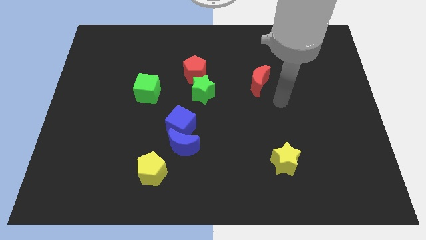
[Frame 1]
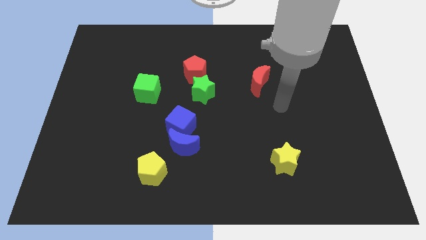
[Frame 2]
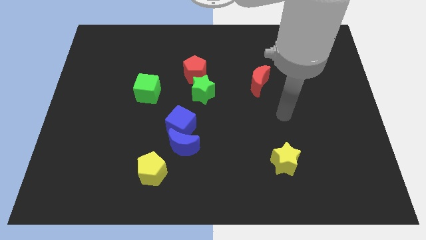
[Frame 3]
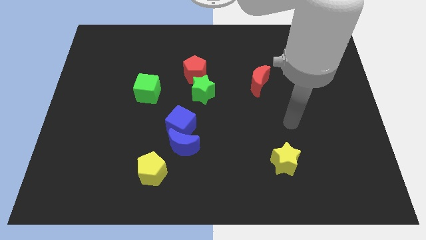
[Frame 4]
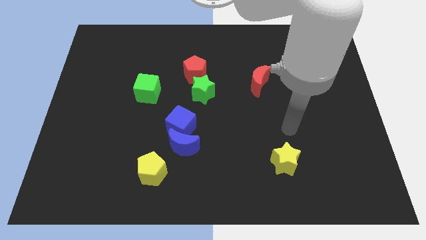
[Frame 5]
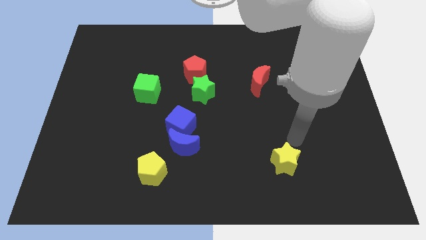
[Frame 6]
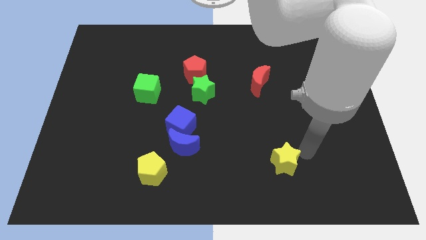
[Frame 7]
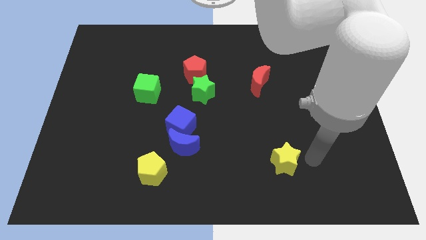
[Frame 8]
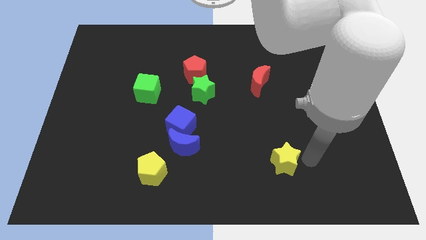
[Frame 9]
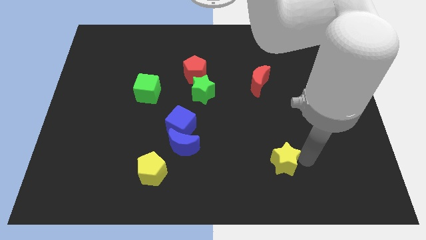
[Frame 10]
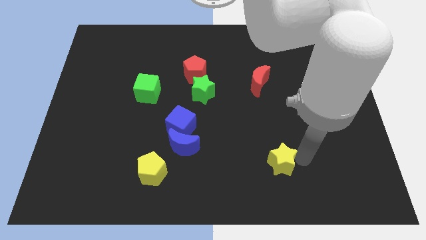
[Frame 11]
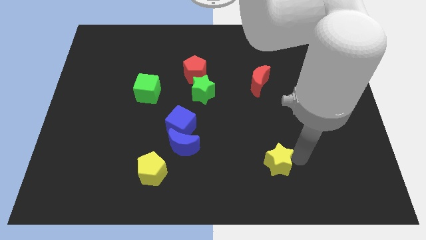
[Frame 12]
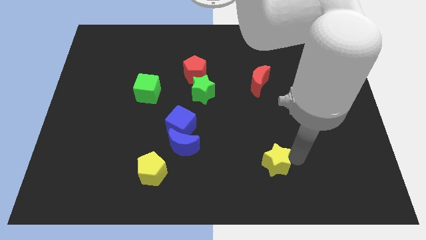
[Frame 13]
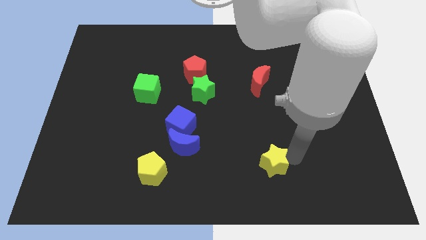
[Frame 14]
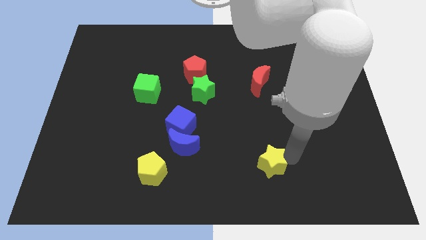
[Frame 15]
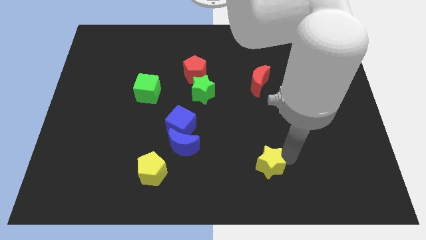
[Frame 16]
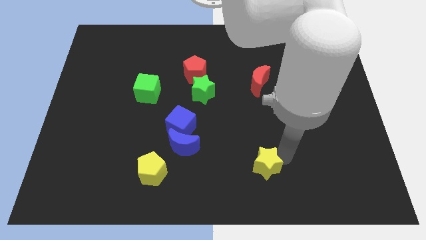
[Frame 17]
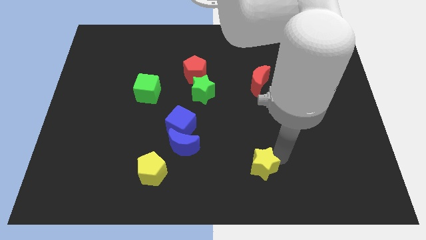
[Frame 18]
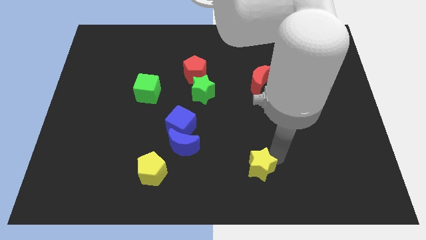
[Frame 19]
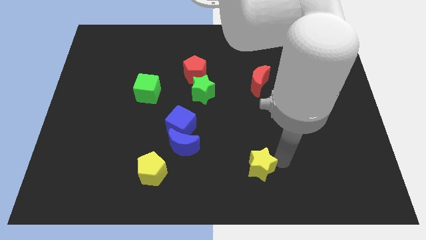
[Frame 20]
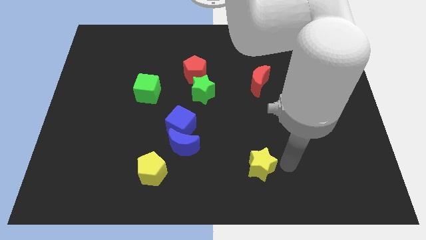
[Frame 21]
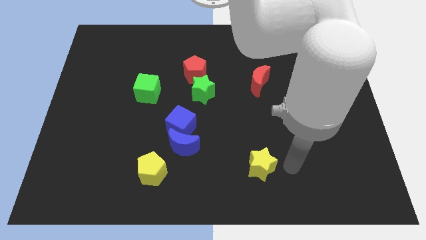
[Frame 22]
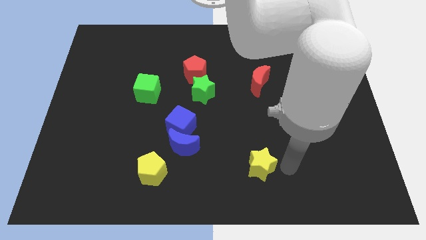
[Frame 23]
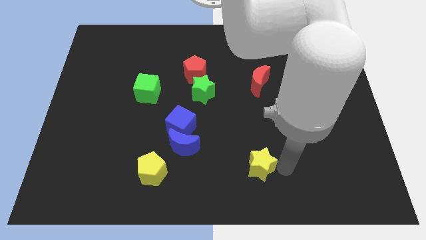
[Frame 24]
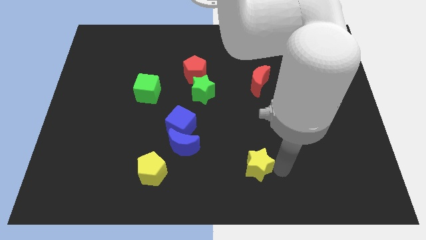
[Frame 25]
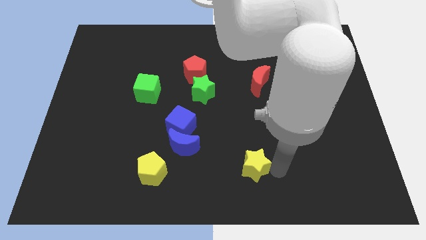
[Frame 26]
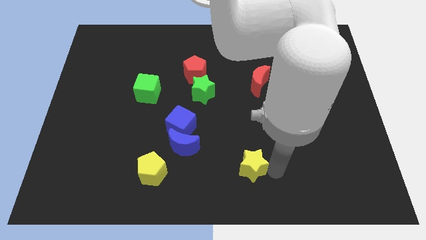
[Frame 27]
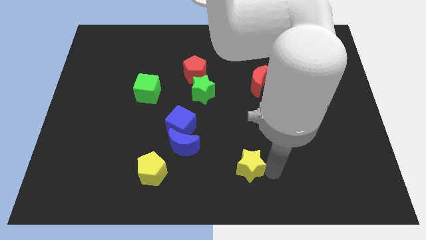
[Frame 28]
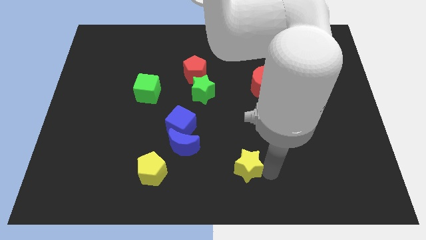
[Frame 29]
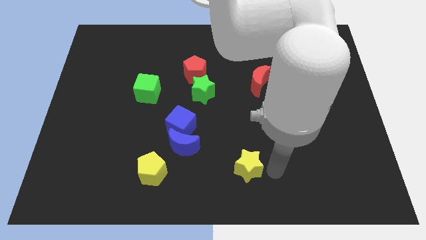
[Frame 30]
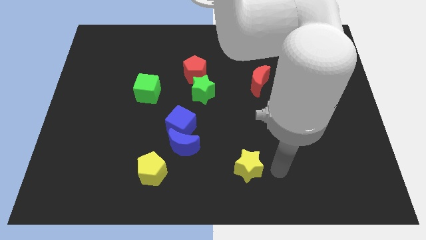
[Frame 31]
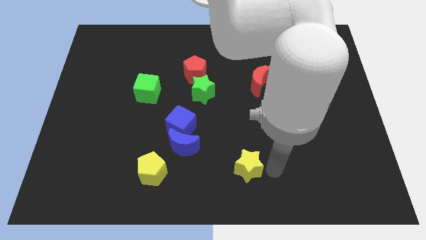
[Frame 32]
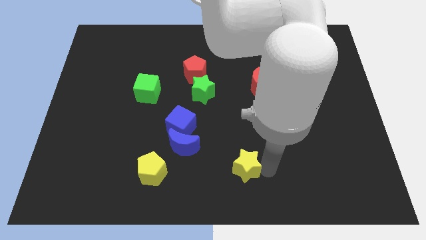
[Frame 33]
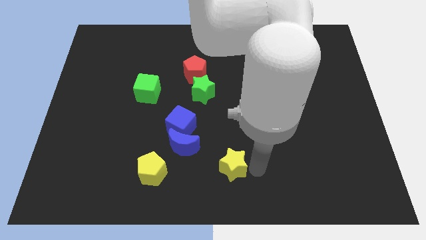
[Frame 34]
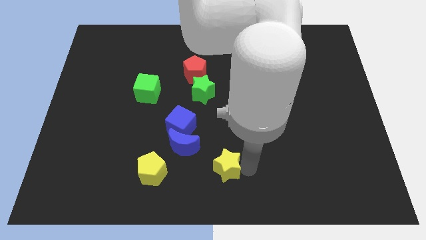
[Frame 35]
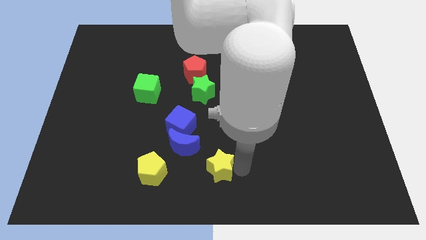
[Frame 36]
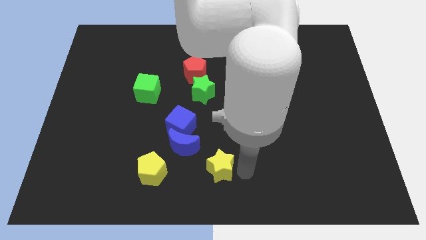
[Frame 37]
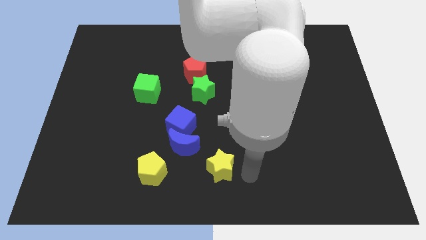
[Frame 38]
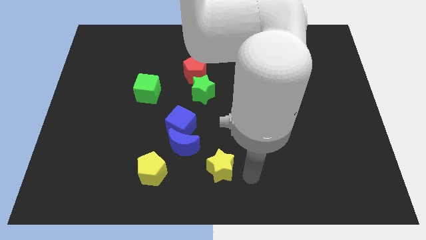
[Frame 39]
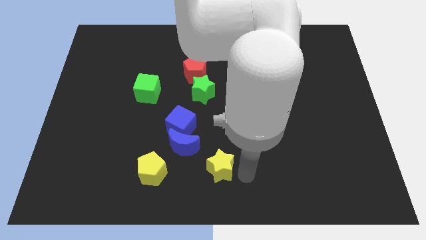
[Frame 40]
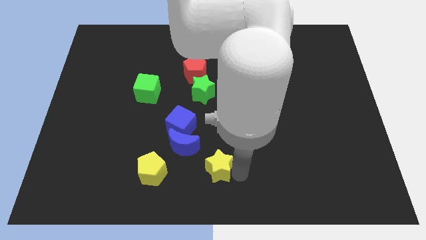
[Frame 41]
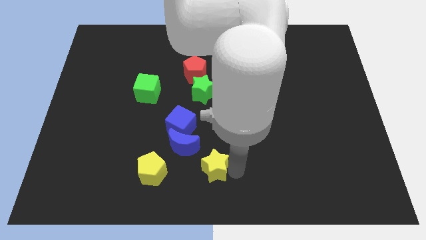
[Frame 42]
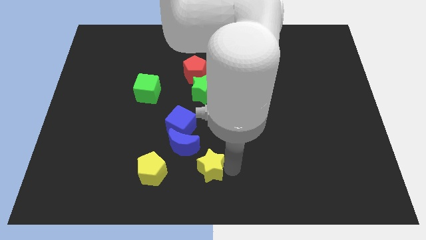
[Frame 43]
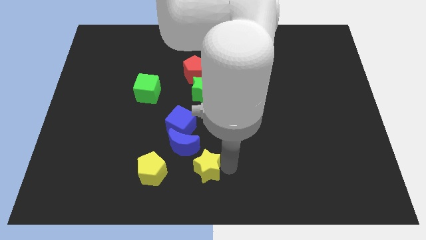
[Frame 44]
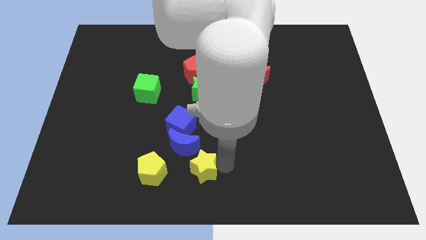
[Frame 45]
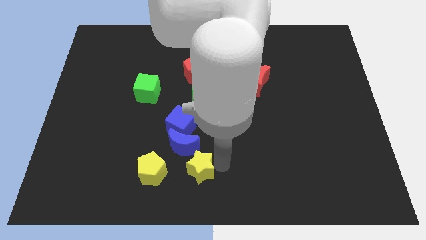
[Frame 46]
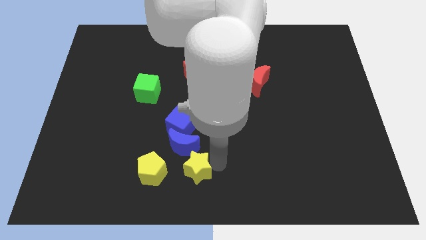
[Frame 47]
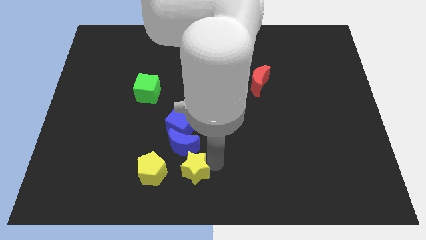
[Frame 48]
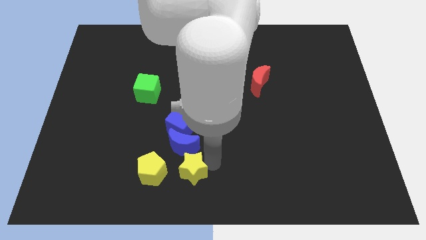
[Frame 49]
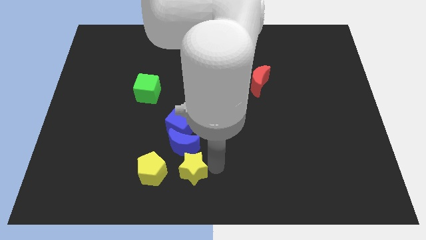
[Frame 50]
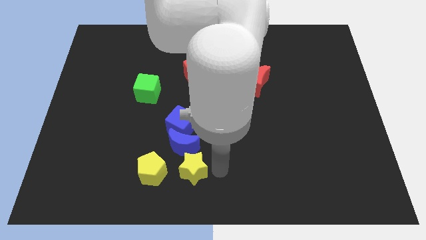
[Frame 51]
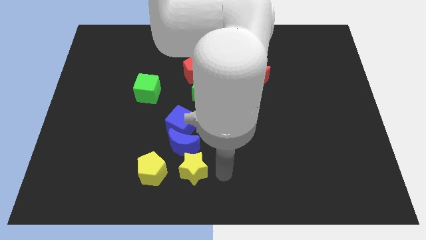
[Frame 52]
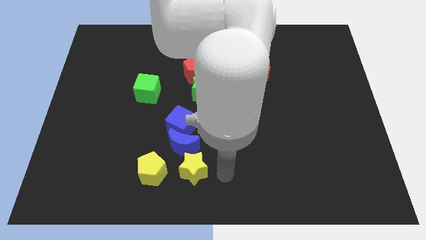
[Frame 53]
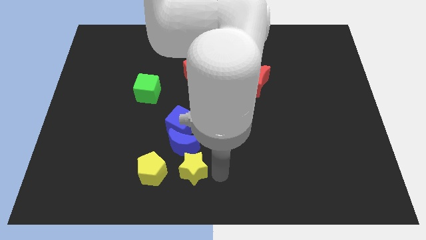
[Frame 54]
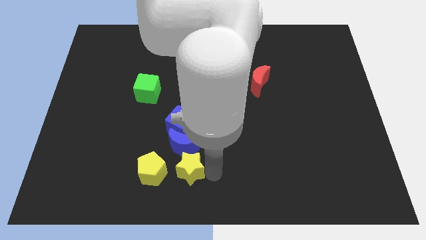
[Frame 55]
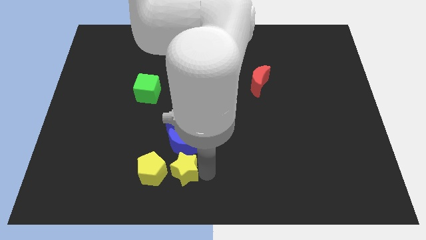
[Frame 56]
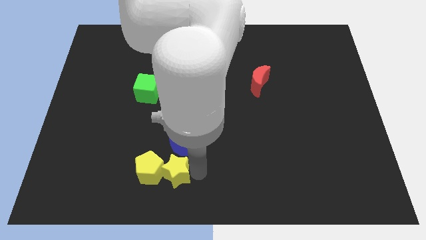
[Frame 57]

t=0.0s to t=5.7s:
put the yellow star next to the yellow pentagon

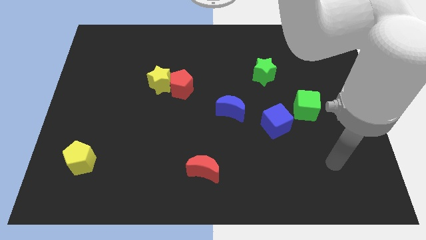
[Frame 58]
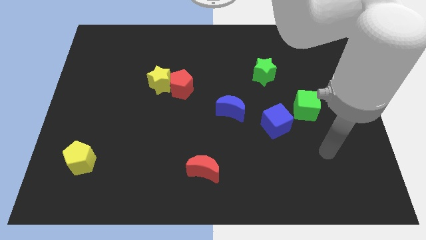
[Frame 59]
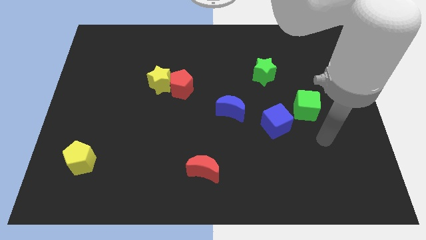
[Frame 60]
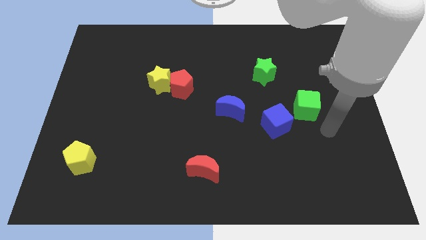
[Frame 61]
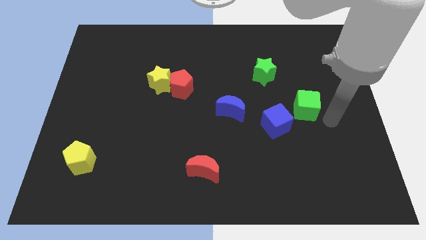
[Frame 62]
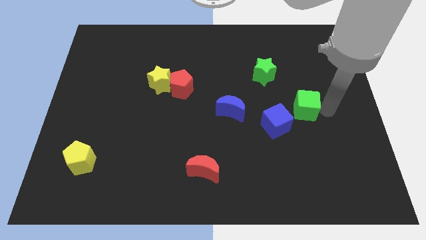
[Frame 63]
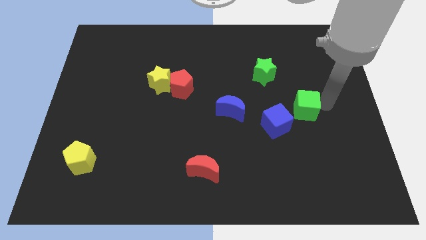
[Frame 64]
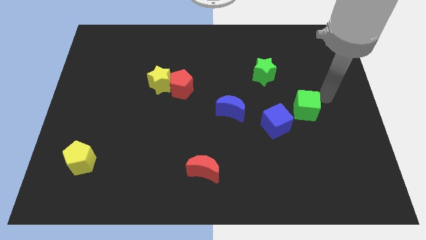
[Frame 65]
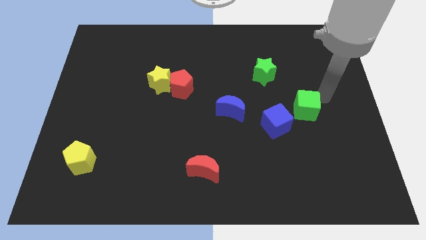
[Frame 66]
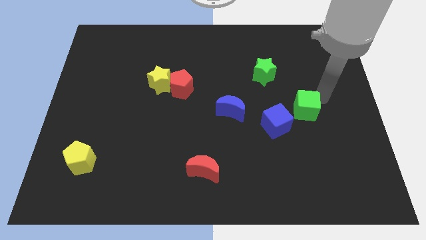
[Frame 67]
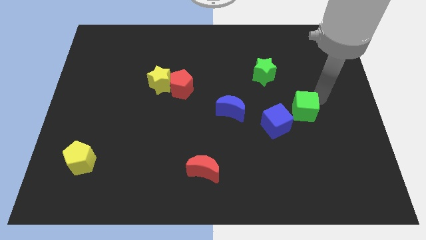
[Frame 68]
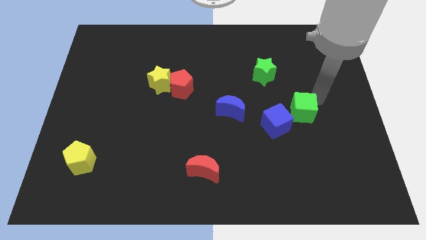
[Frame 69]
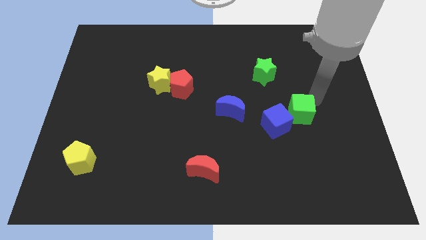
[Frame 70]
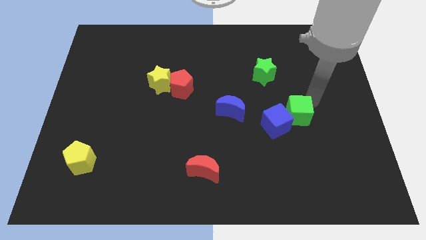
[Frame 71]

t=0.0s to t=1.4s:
put the green cube to the blue cube

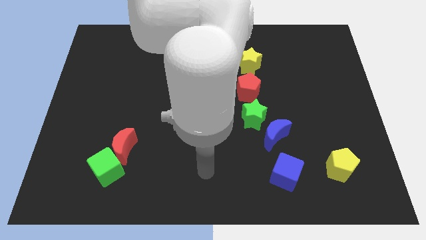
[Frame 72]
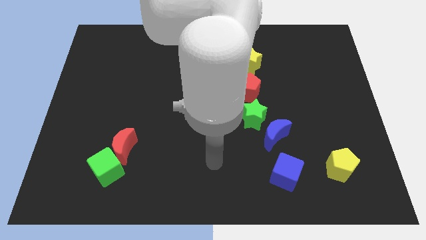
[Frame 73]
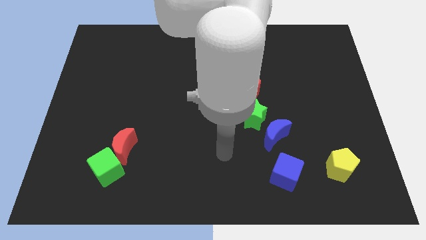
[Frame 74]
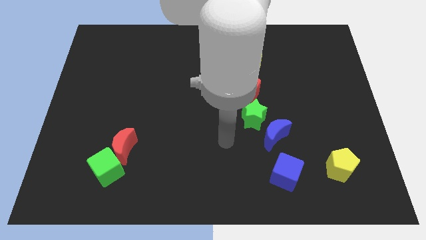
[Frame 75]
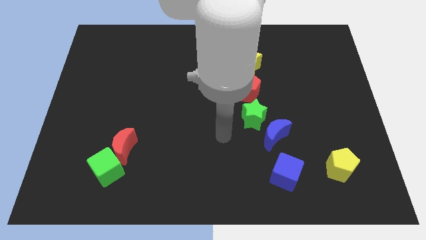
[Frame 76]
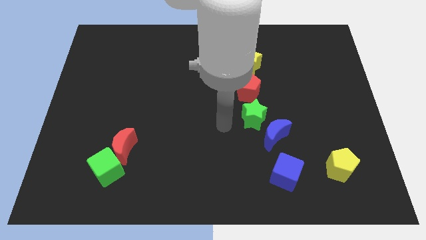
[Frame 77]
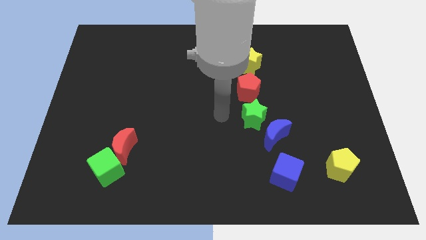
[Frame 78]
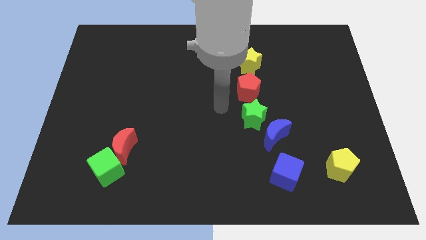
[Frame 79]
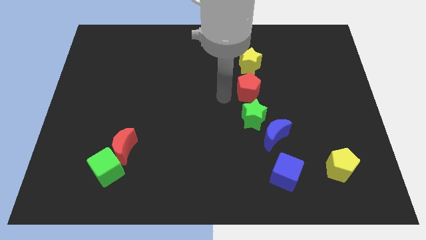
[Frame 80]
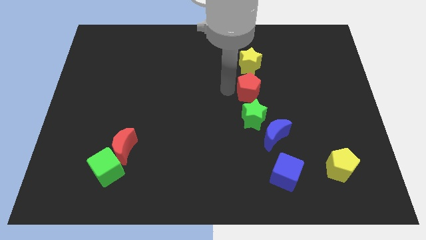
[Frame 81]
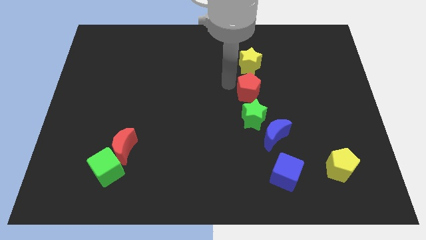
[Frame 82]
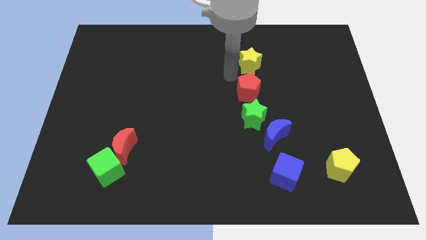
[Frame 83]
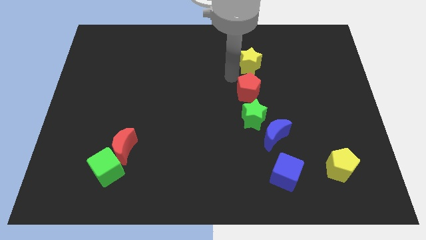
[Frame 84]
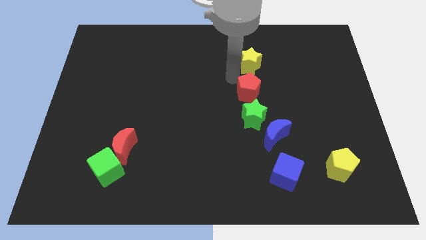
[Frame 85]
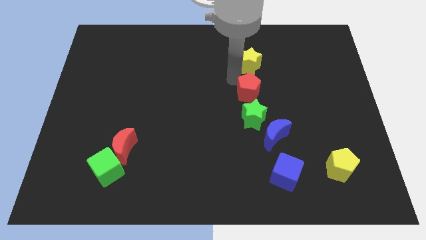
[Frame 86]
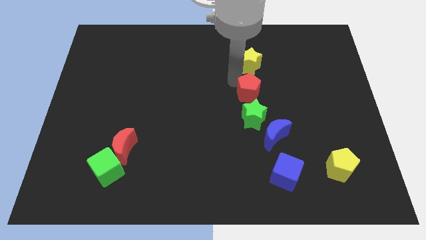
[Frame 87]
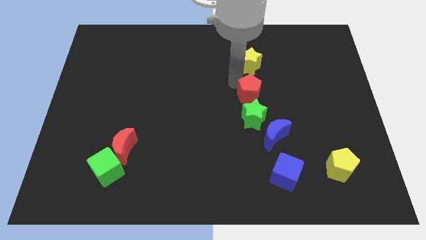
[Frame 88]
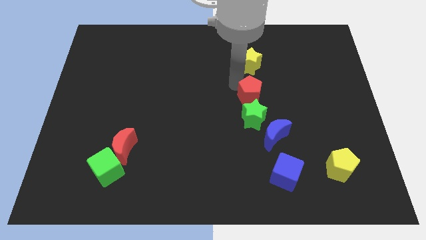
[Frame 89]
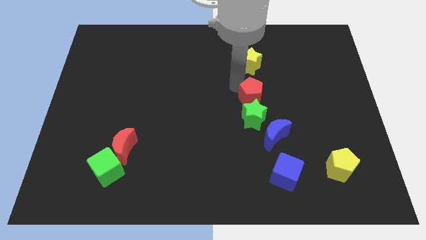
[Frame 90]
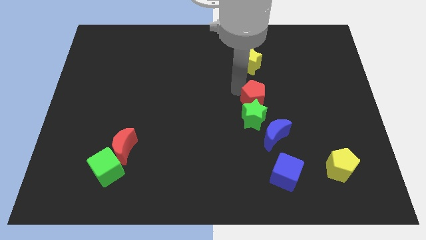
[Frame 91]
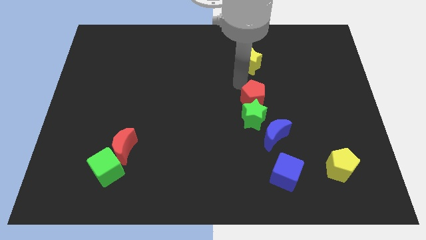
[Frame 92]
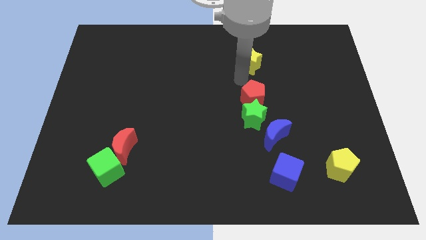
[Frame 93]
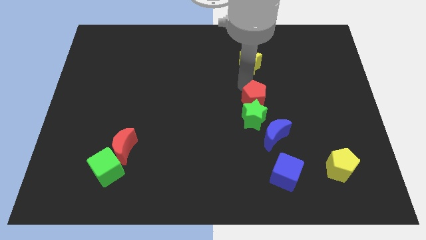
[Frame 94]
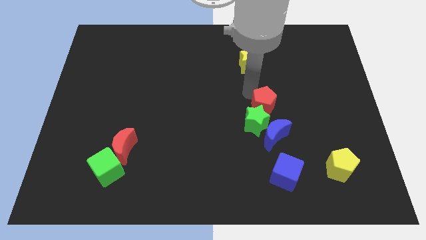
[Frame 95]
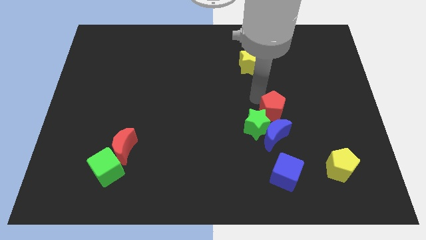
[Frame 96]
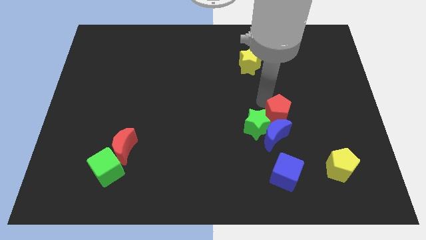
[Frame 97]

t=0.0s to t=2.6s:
slide the red pentagon next to the blue moon
